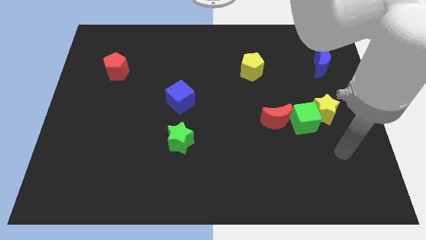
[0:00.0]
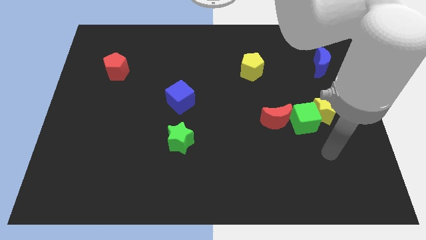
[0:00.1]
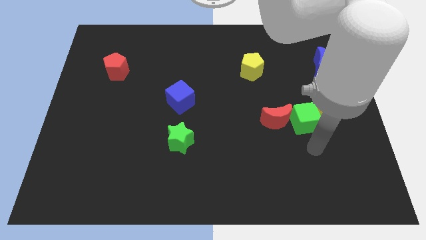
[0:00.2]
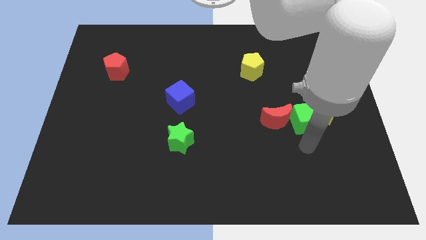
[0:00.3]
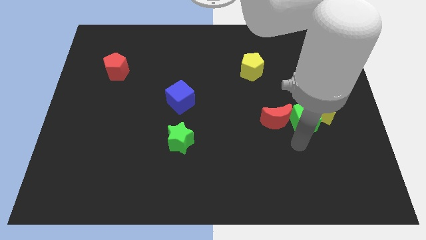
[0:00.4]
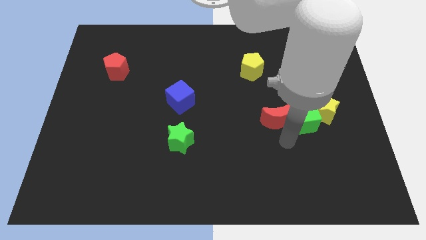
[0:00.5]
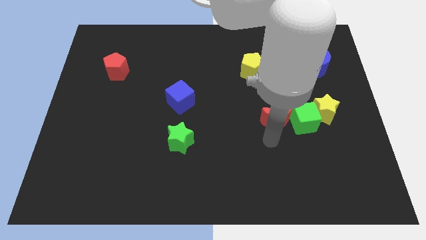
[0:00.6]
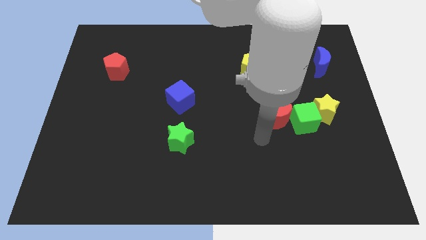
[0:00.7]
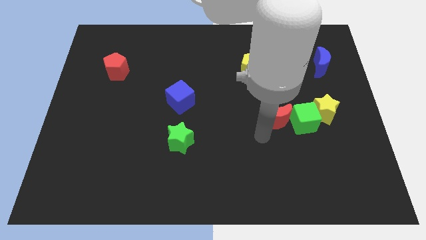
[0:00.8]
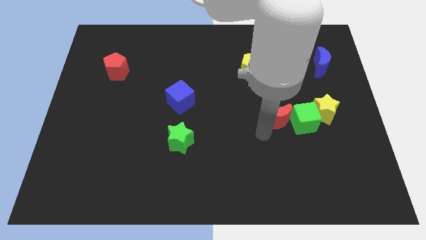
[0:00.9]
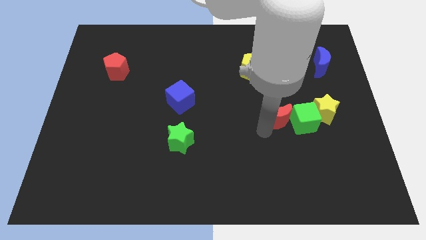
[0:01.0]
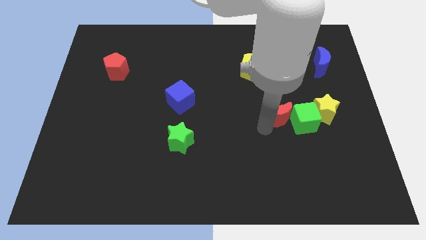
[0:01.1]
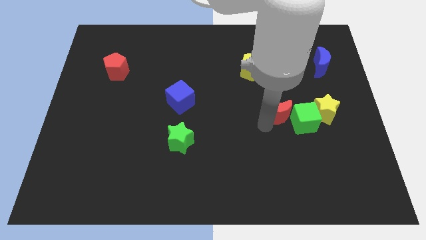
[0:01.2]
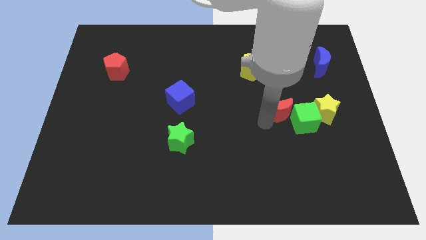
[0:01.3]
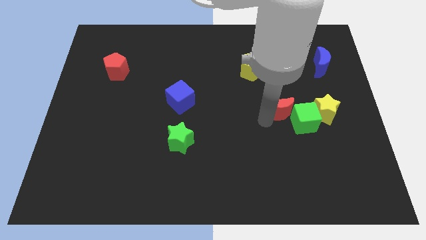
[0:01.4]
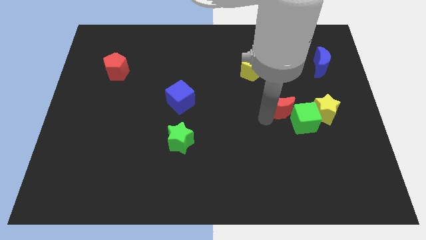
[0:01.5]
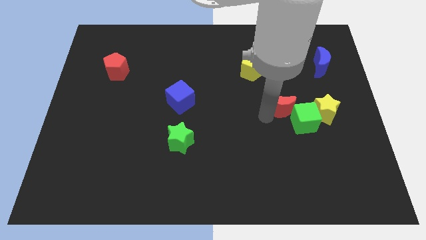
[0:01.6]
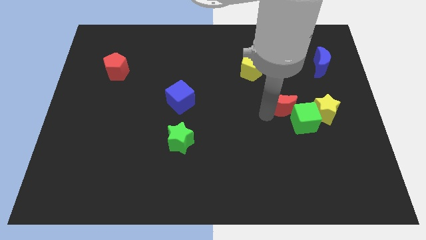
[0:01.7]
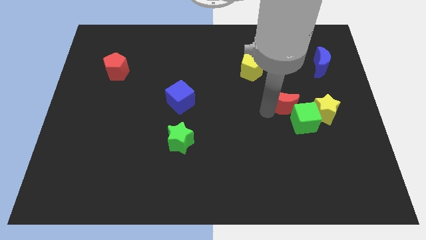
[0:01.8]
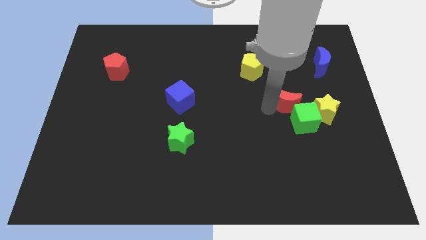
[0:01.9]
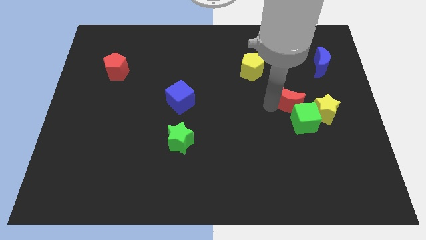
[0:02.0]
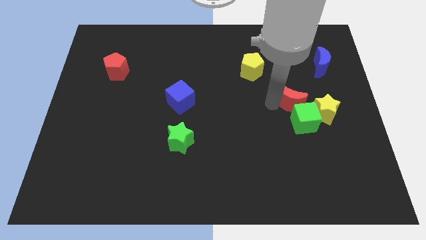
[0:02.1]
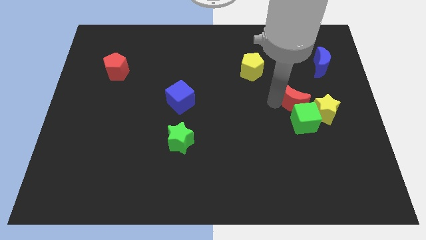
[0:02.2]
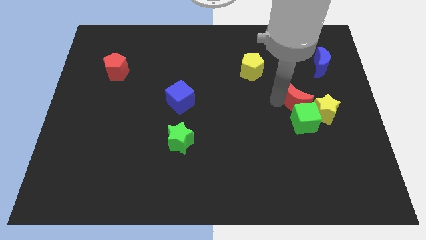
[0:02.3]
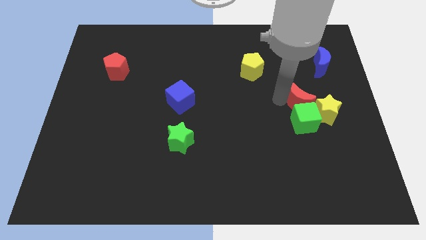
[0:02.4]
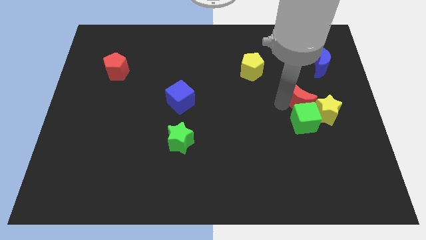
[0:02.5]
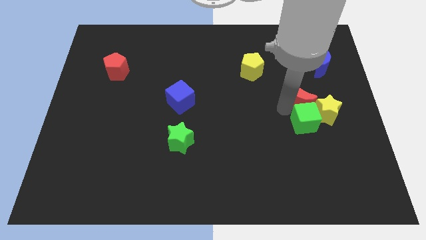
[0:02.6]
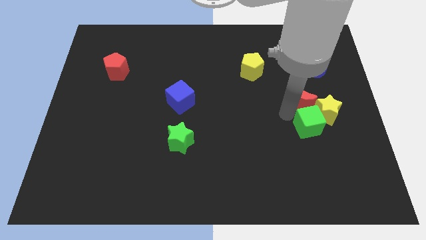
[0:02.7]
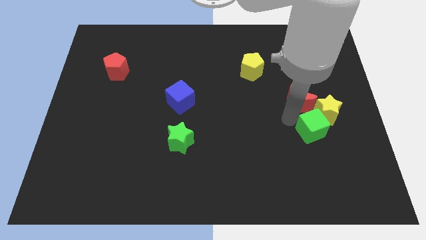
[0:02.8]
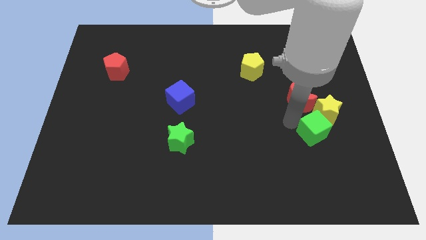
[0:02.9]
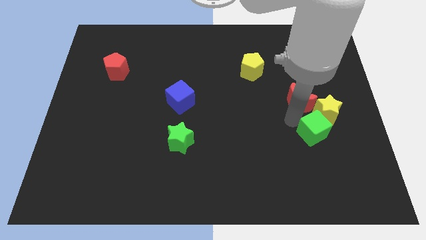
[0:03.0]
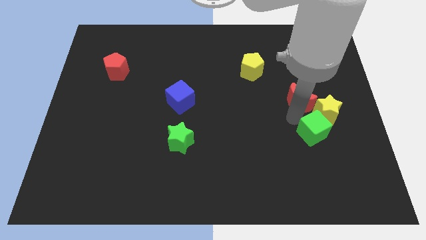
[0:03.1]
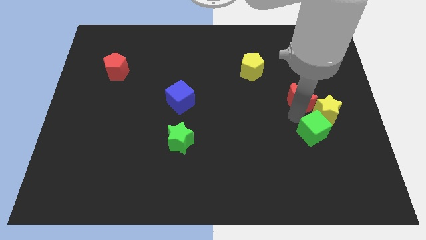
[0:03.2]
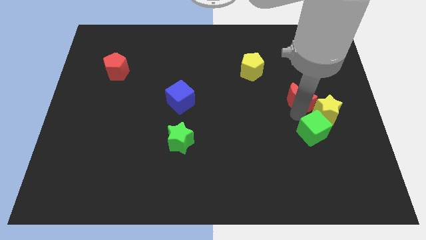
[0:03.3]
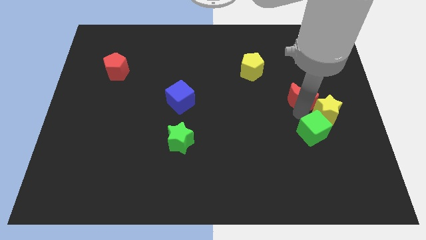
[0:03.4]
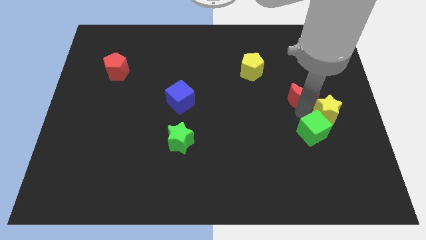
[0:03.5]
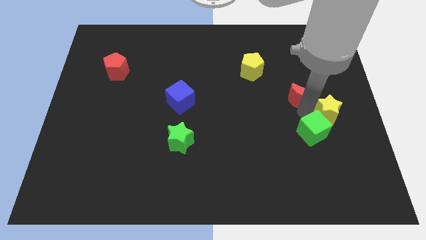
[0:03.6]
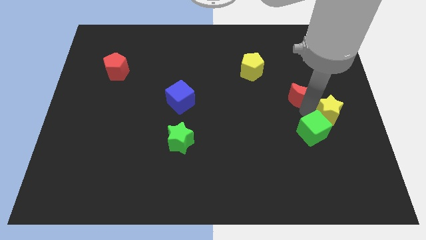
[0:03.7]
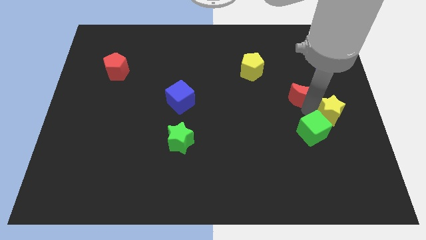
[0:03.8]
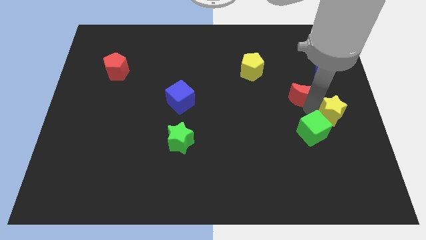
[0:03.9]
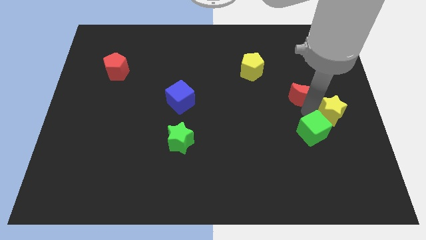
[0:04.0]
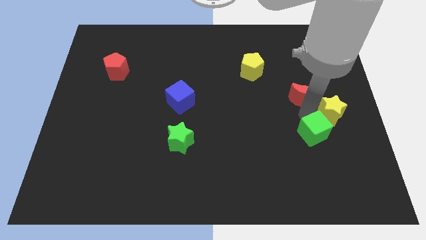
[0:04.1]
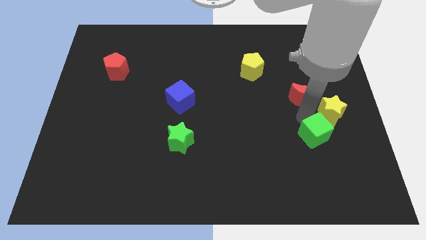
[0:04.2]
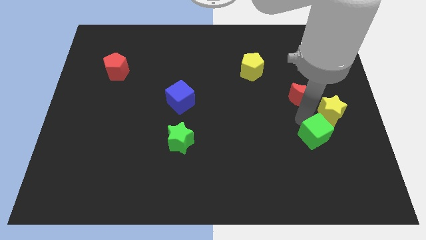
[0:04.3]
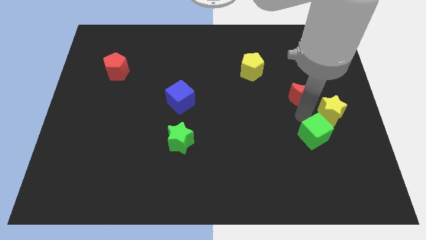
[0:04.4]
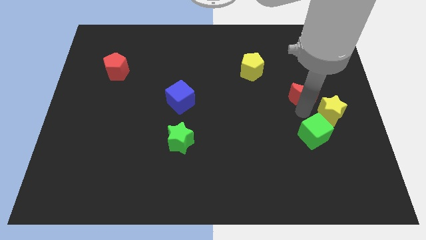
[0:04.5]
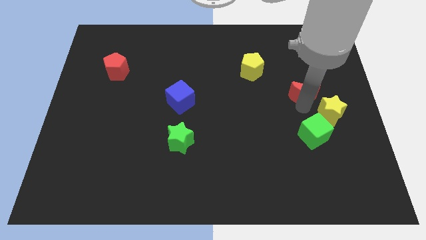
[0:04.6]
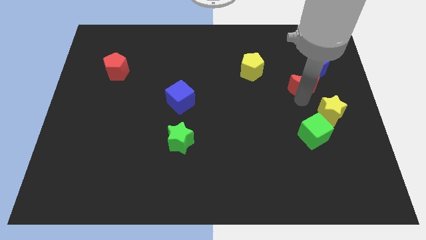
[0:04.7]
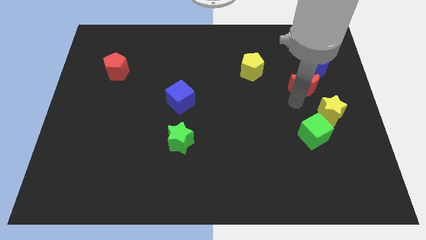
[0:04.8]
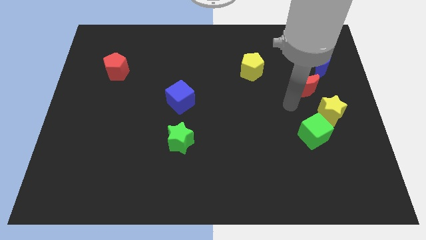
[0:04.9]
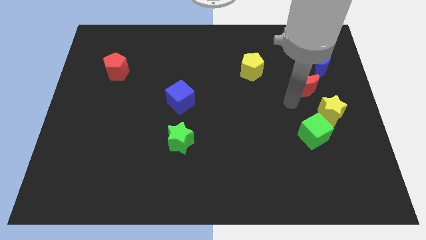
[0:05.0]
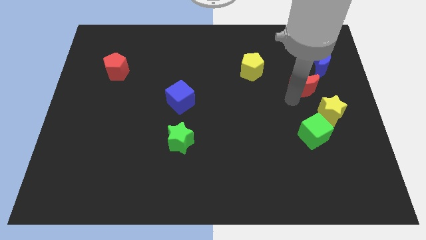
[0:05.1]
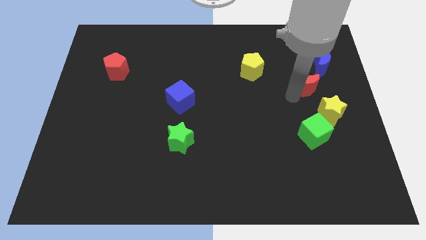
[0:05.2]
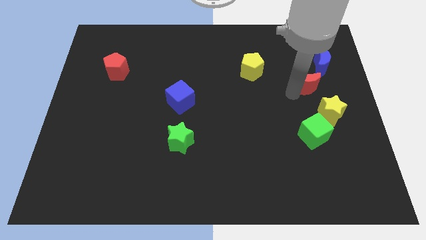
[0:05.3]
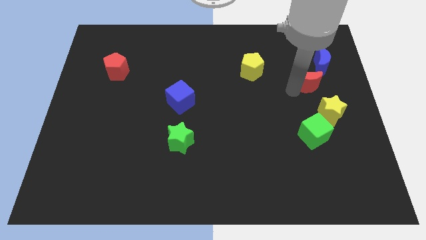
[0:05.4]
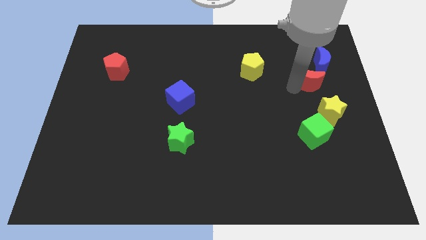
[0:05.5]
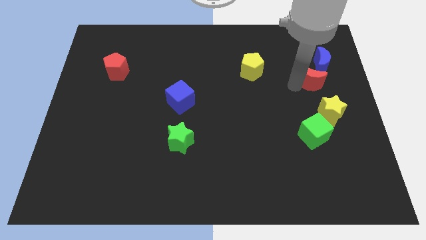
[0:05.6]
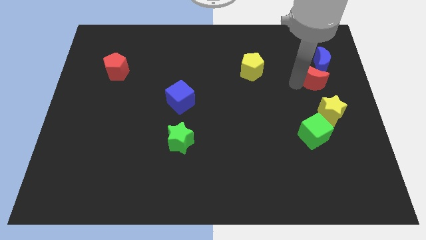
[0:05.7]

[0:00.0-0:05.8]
put the red moon next to the blue moon
